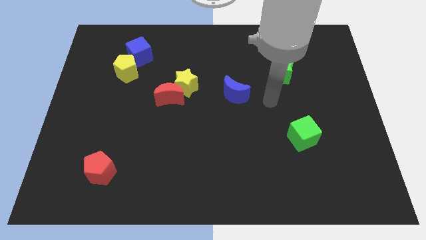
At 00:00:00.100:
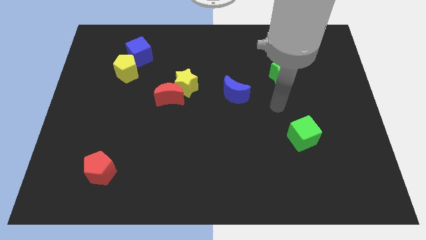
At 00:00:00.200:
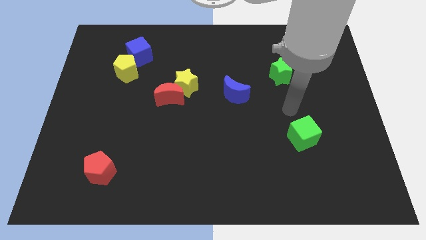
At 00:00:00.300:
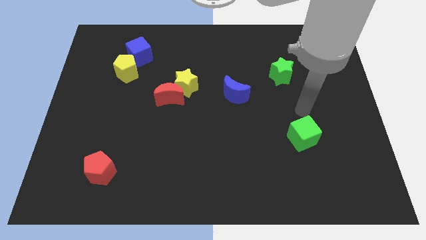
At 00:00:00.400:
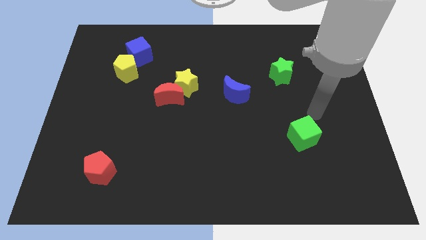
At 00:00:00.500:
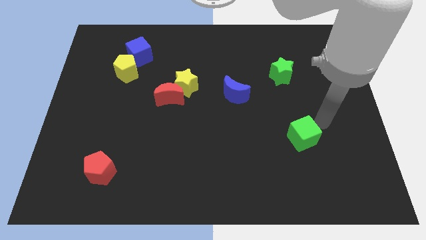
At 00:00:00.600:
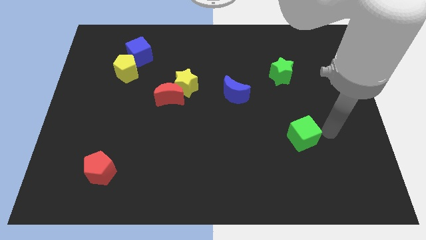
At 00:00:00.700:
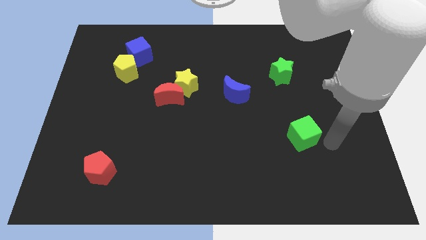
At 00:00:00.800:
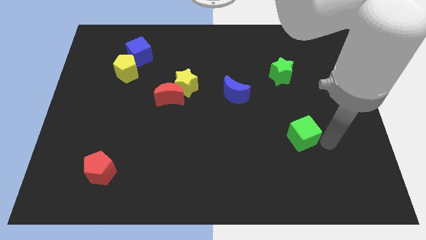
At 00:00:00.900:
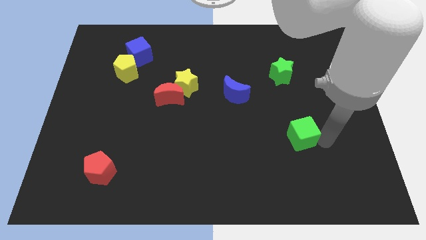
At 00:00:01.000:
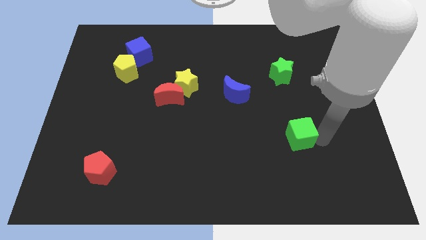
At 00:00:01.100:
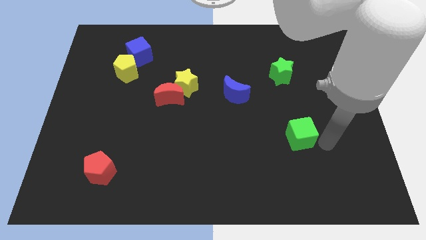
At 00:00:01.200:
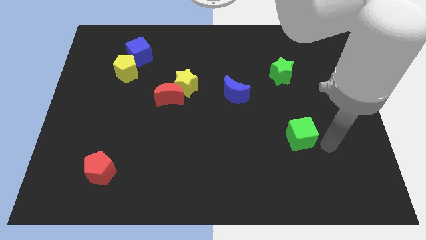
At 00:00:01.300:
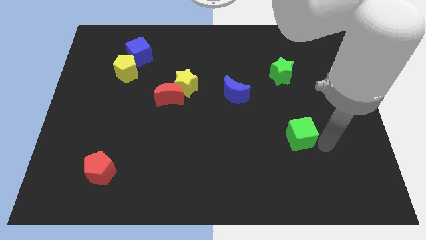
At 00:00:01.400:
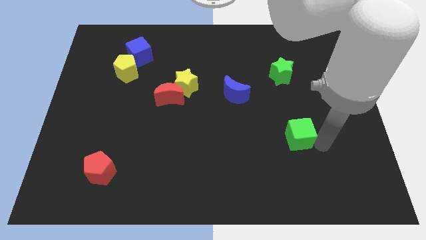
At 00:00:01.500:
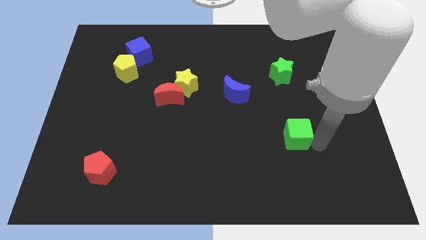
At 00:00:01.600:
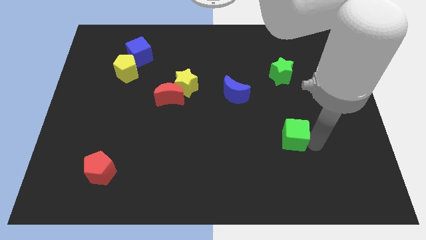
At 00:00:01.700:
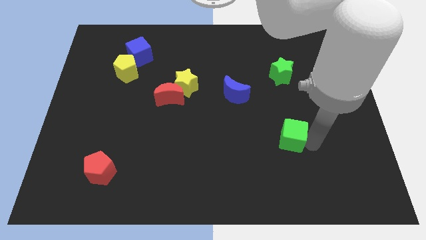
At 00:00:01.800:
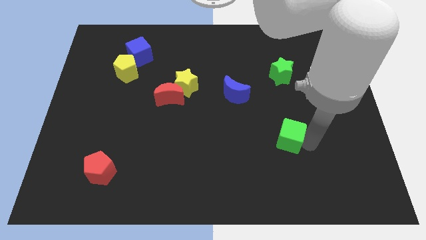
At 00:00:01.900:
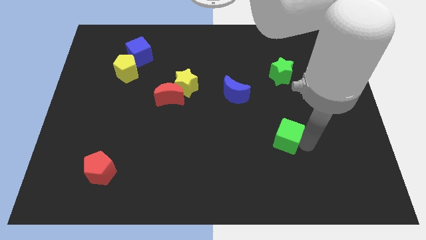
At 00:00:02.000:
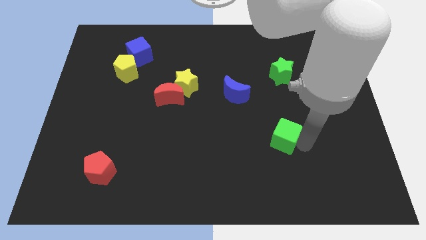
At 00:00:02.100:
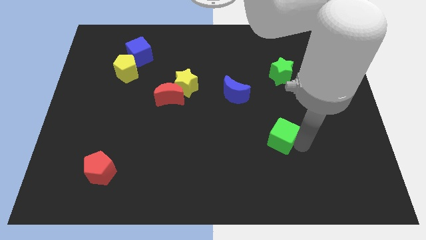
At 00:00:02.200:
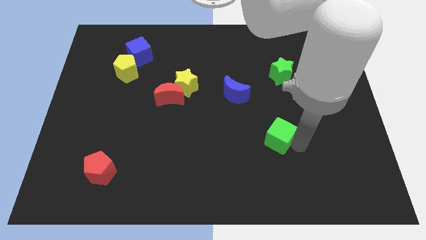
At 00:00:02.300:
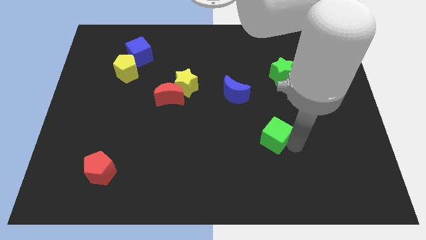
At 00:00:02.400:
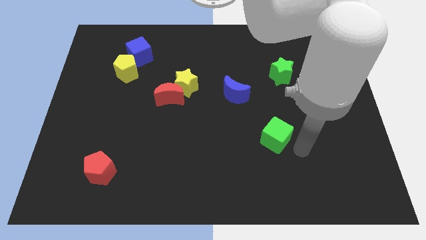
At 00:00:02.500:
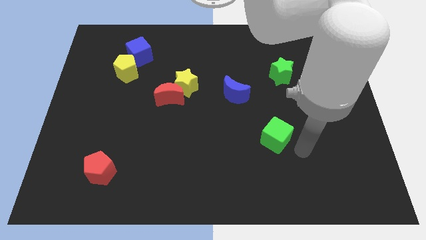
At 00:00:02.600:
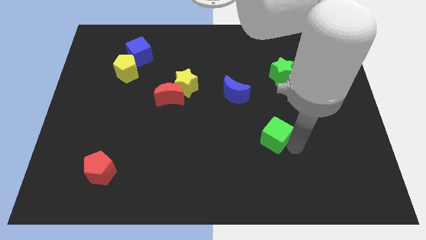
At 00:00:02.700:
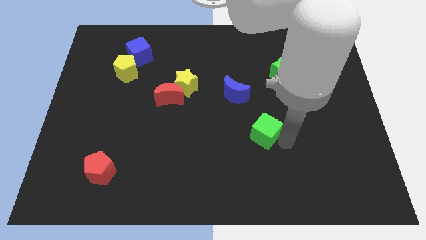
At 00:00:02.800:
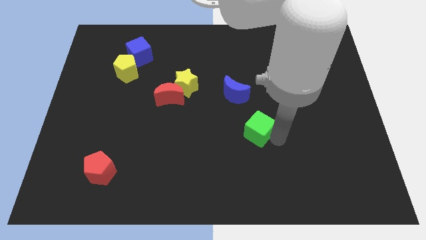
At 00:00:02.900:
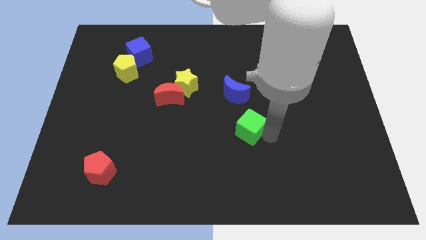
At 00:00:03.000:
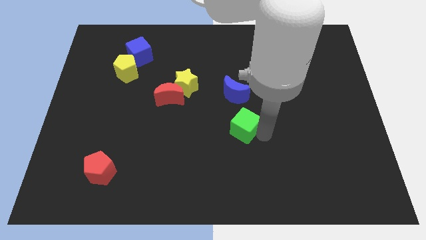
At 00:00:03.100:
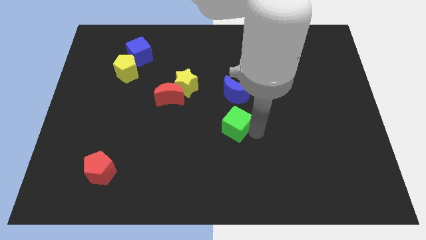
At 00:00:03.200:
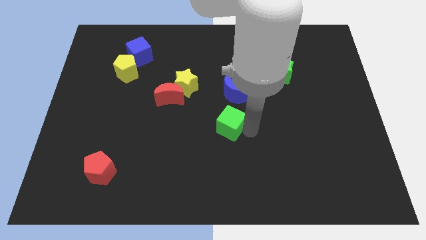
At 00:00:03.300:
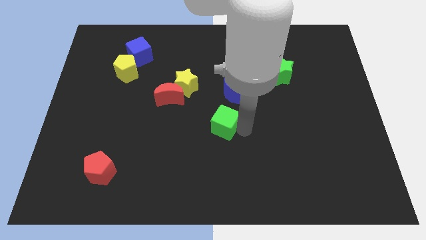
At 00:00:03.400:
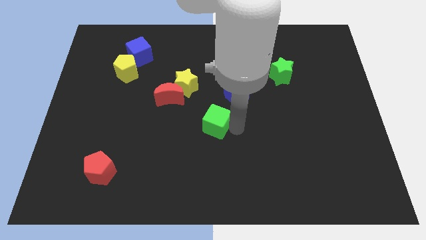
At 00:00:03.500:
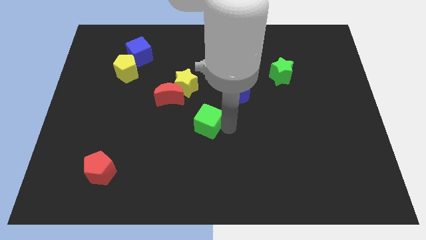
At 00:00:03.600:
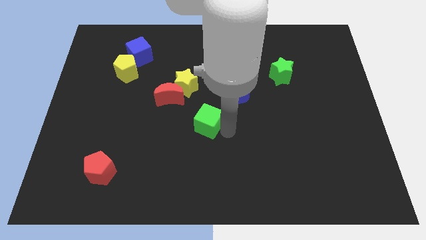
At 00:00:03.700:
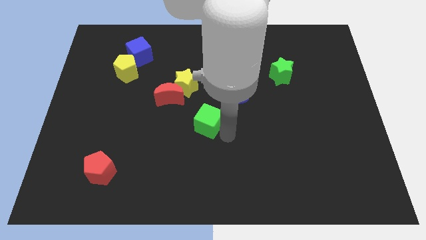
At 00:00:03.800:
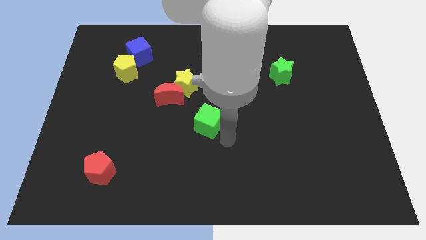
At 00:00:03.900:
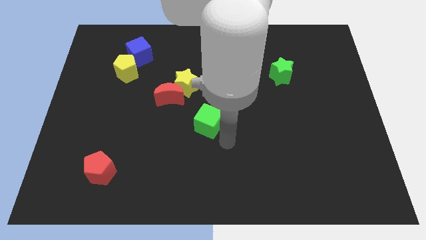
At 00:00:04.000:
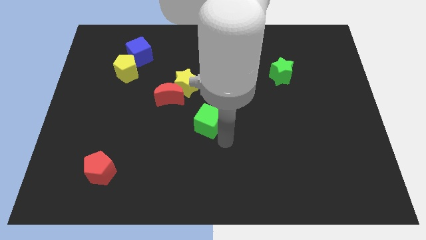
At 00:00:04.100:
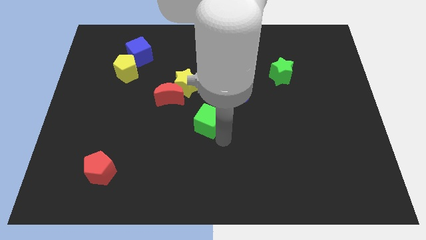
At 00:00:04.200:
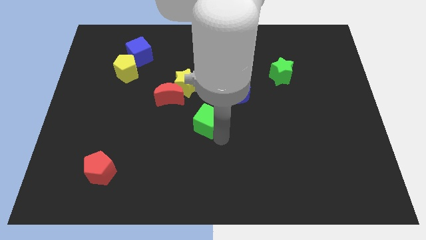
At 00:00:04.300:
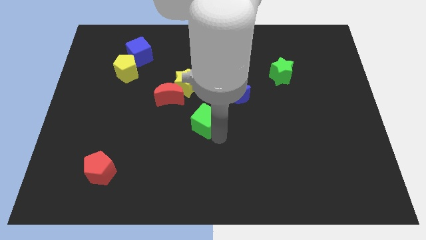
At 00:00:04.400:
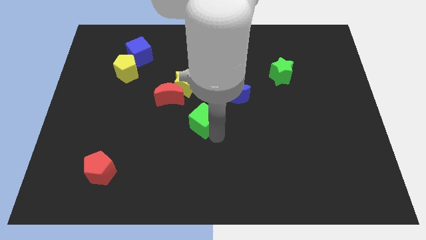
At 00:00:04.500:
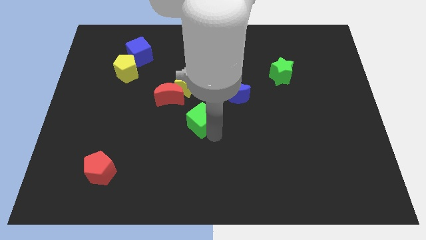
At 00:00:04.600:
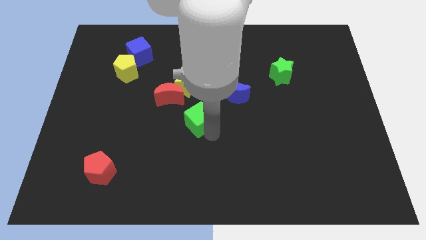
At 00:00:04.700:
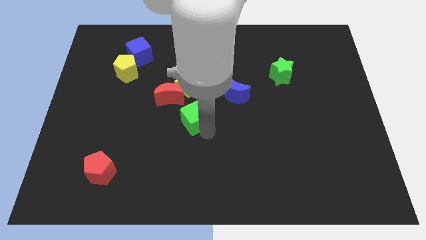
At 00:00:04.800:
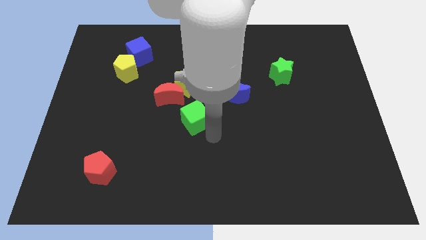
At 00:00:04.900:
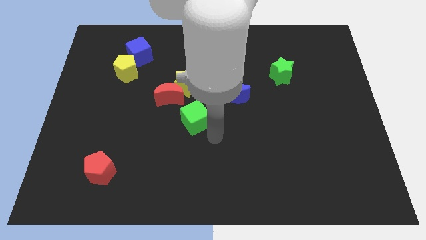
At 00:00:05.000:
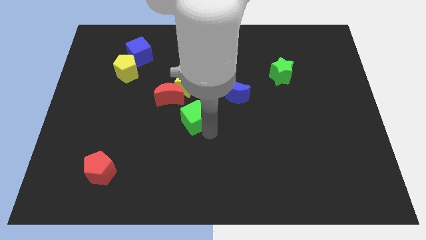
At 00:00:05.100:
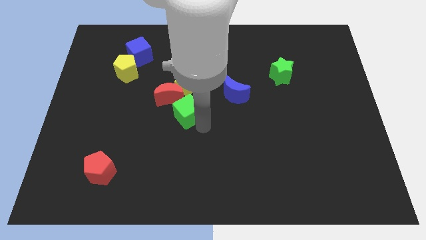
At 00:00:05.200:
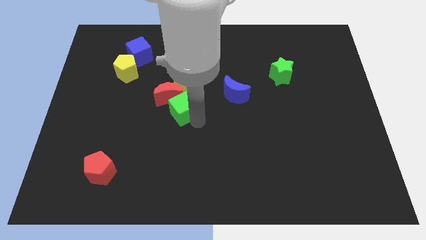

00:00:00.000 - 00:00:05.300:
move the green cube next to the red moon

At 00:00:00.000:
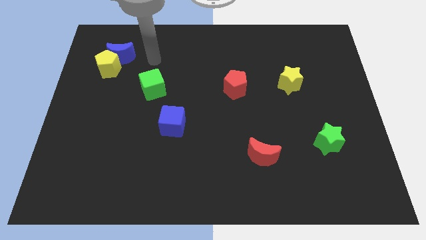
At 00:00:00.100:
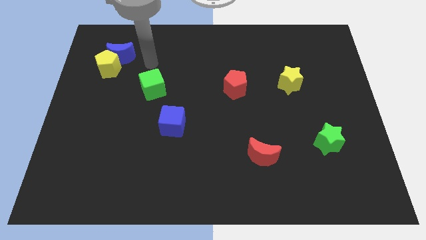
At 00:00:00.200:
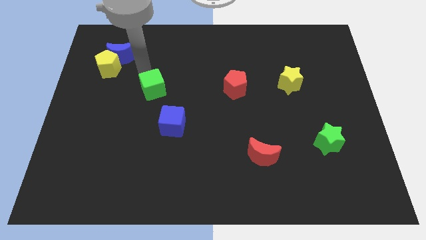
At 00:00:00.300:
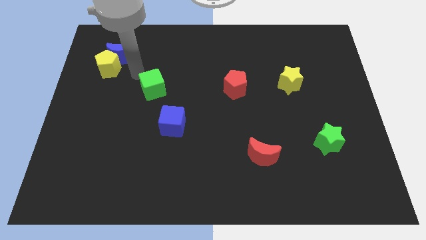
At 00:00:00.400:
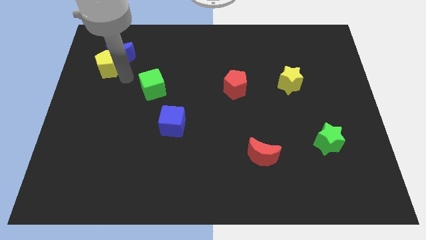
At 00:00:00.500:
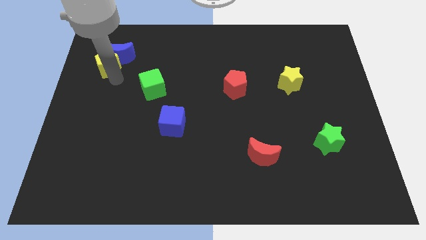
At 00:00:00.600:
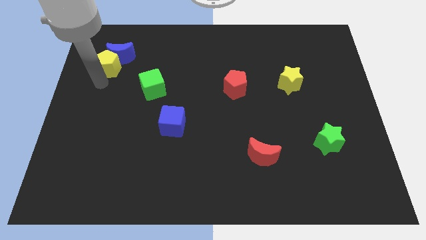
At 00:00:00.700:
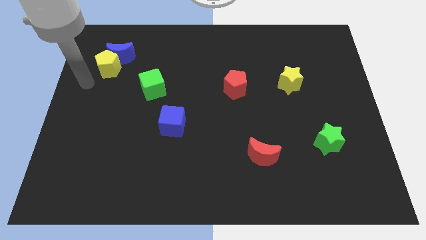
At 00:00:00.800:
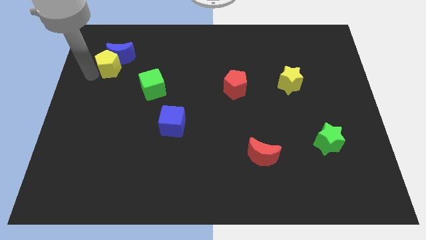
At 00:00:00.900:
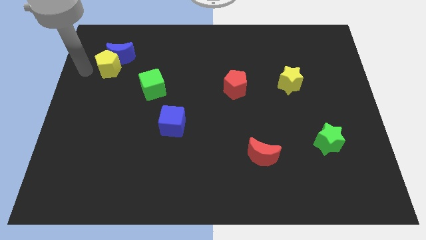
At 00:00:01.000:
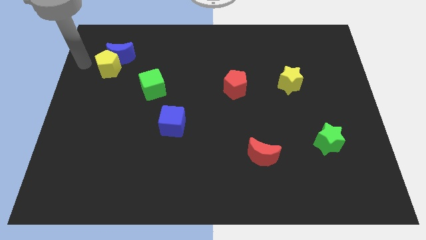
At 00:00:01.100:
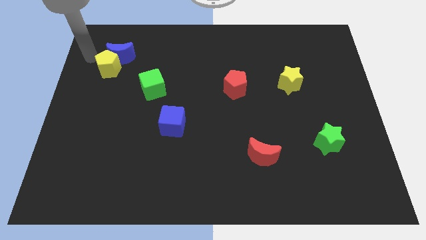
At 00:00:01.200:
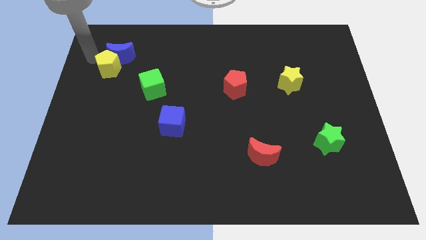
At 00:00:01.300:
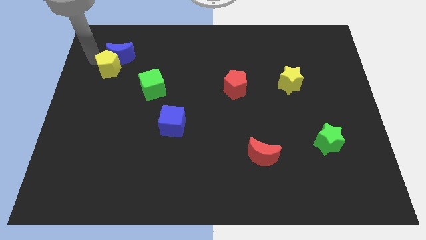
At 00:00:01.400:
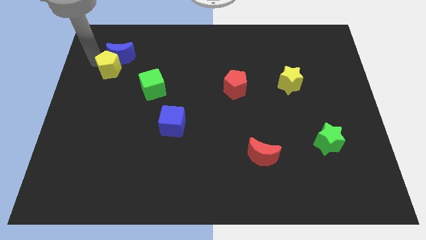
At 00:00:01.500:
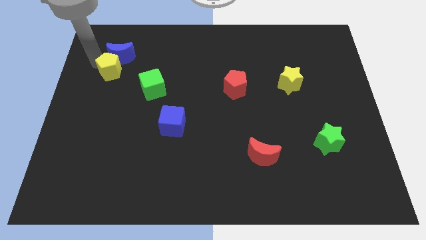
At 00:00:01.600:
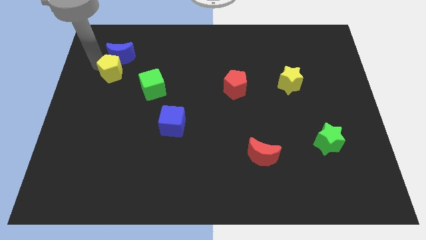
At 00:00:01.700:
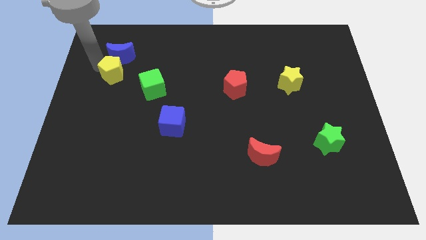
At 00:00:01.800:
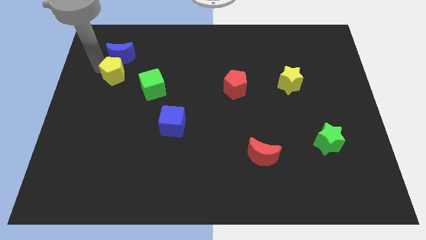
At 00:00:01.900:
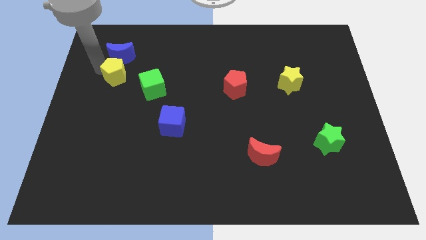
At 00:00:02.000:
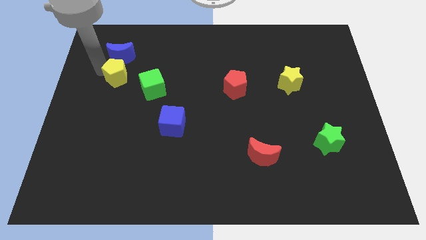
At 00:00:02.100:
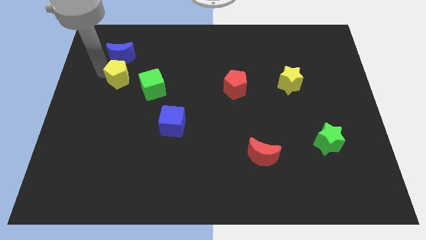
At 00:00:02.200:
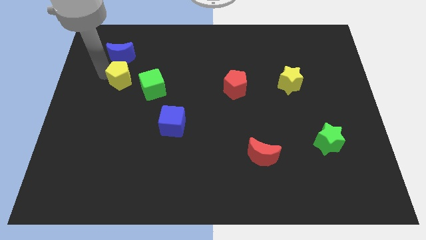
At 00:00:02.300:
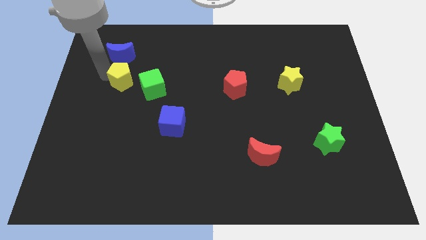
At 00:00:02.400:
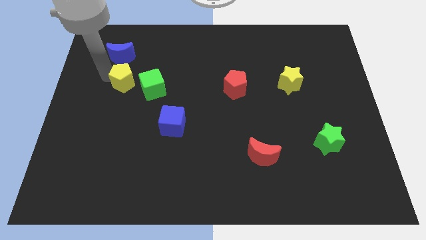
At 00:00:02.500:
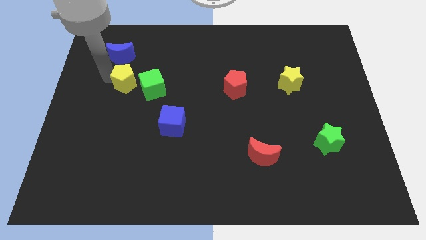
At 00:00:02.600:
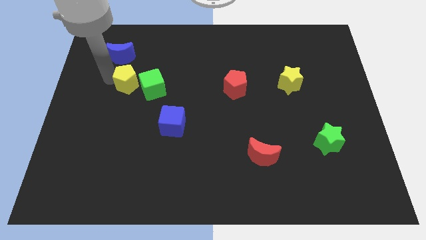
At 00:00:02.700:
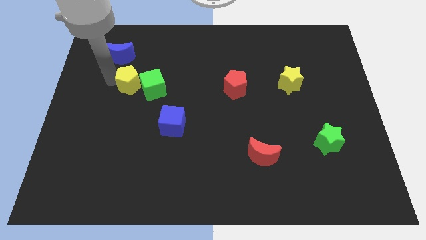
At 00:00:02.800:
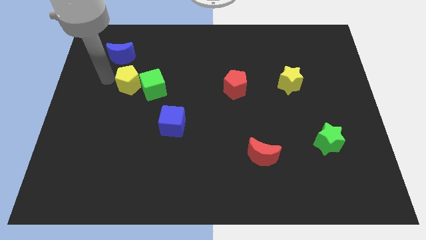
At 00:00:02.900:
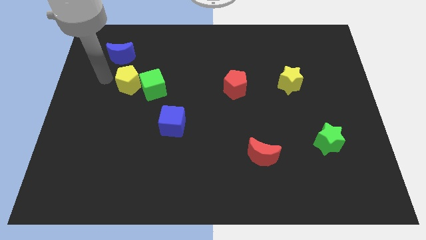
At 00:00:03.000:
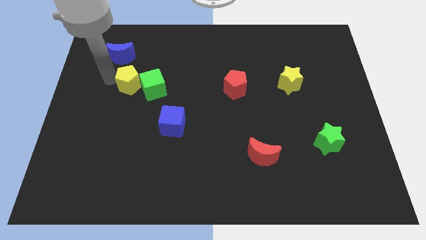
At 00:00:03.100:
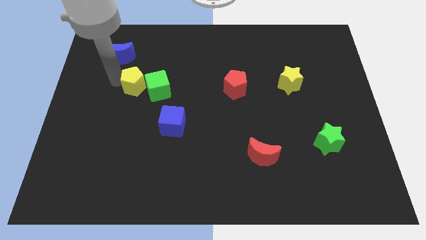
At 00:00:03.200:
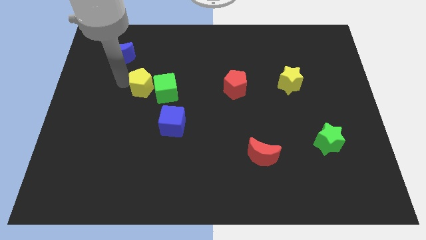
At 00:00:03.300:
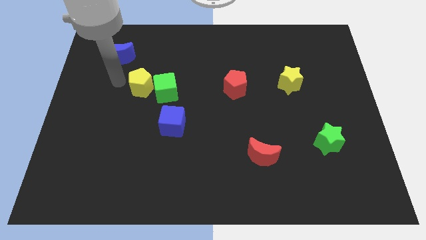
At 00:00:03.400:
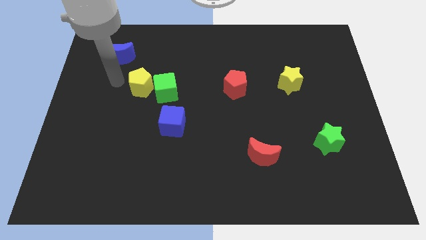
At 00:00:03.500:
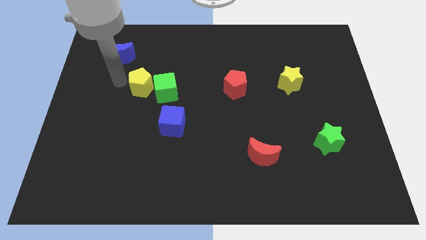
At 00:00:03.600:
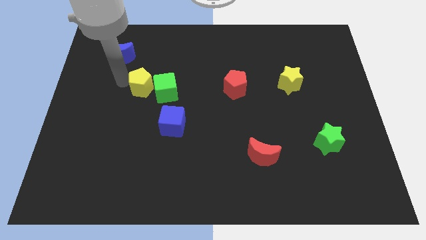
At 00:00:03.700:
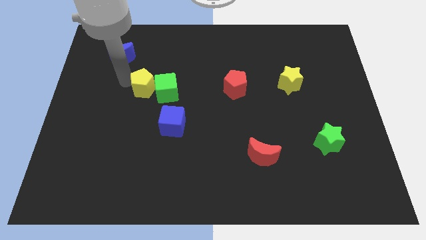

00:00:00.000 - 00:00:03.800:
push the yellow pentagon to the green cube
